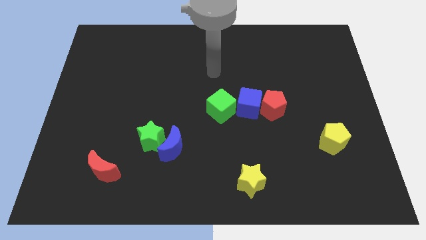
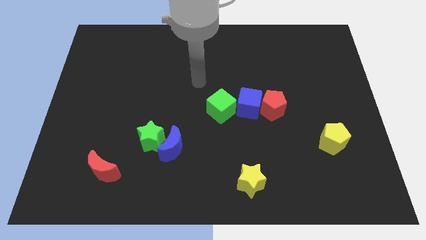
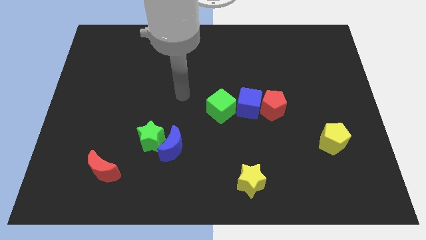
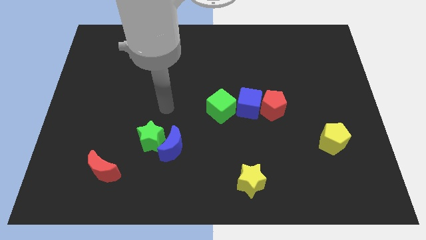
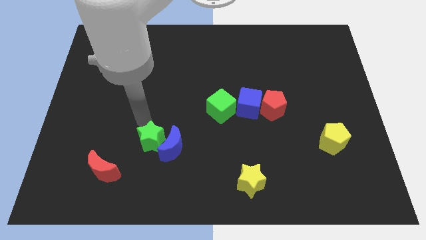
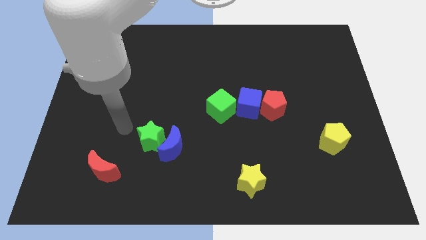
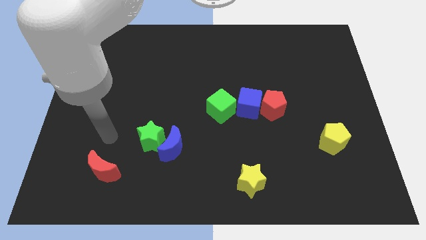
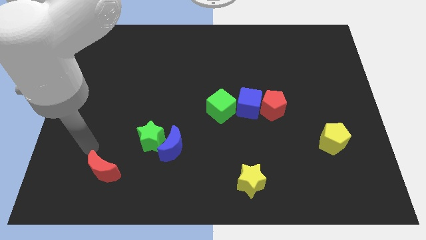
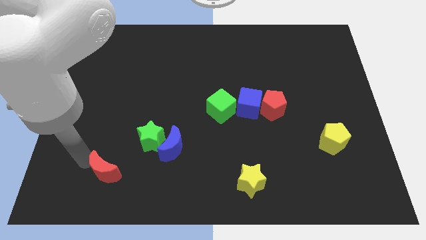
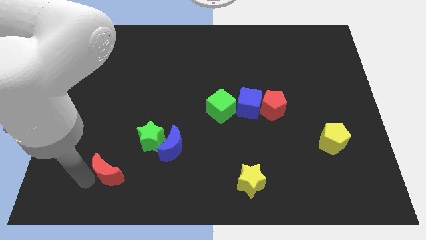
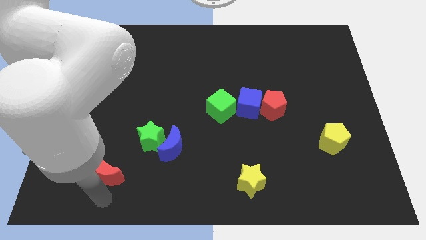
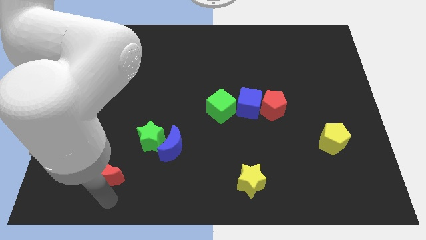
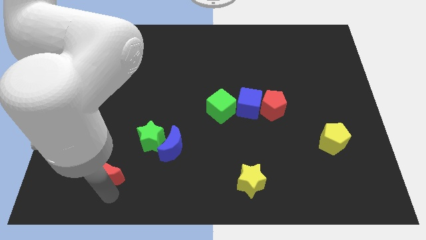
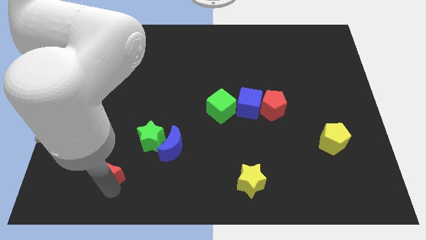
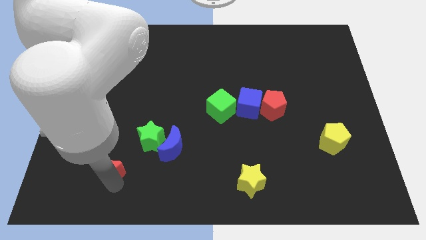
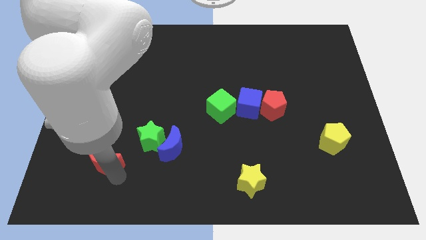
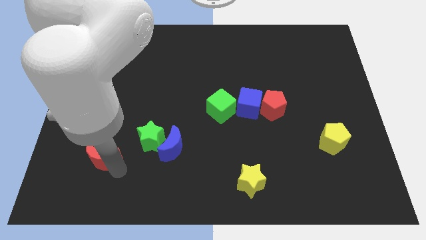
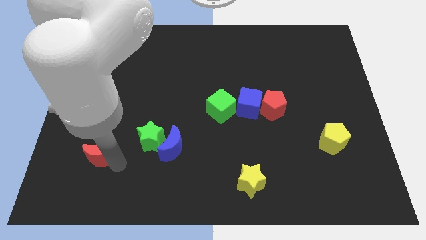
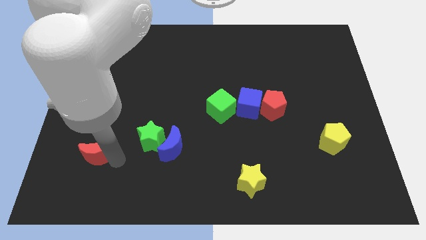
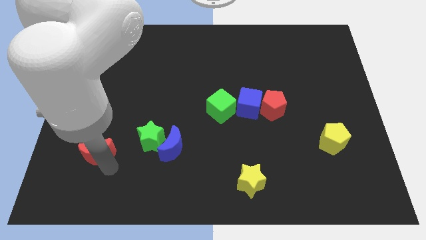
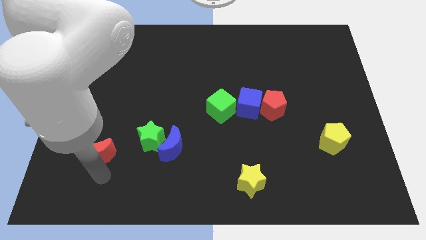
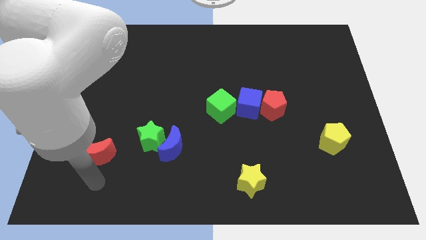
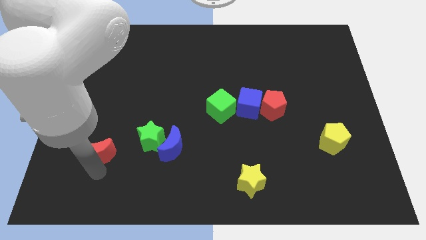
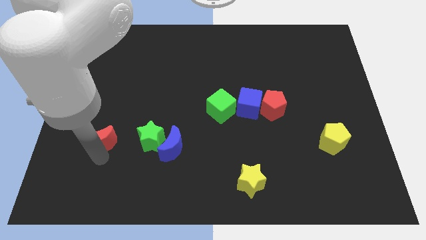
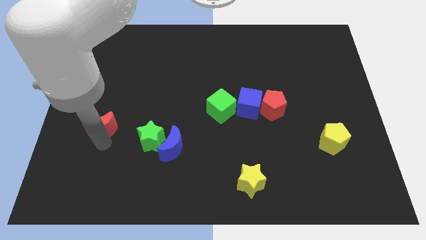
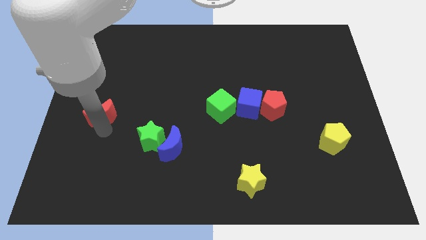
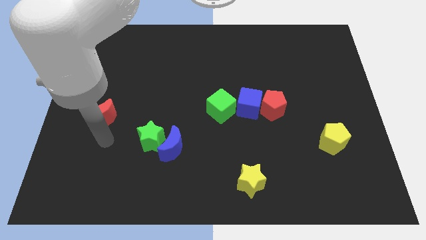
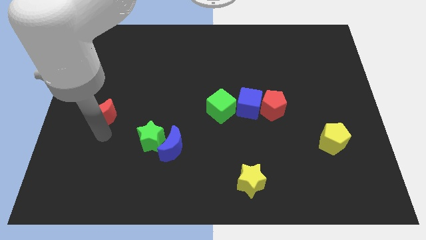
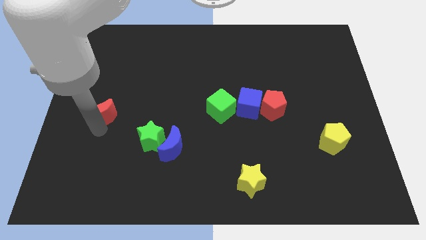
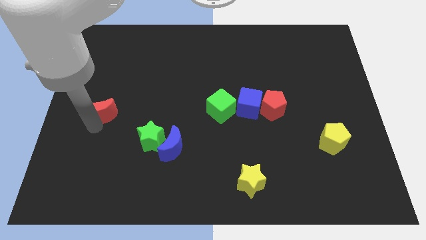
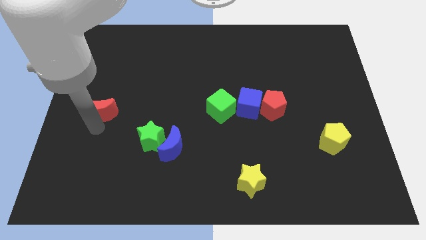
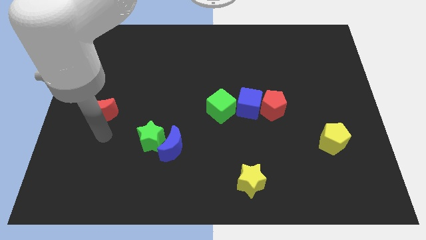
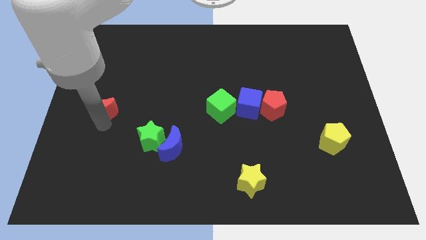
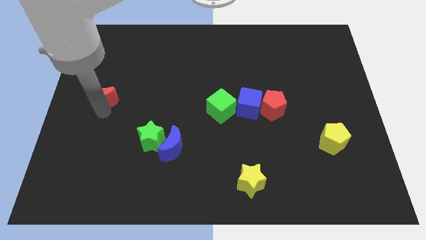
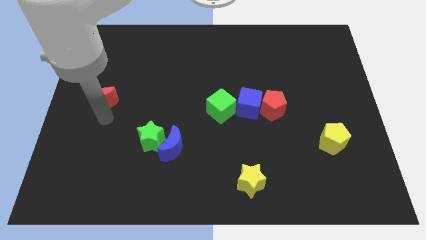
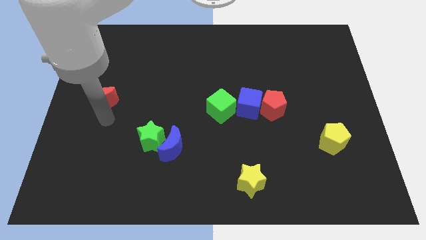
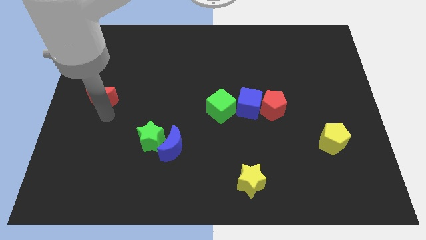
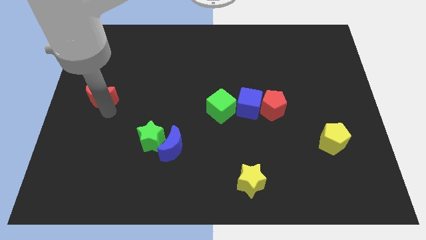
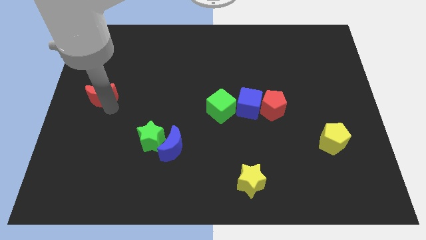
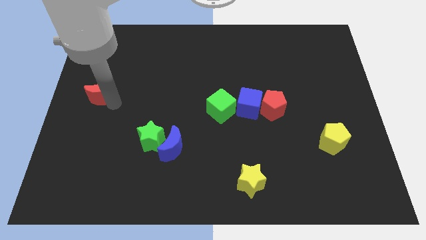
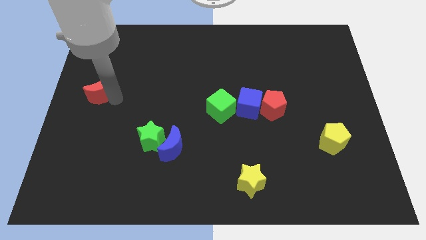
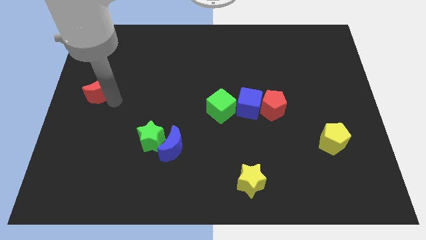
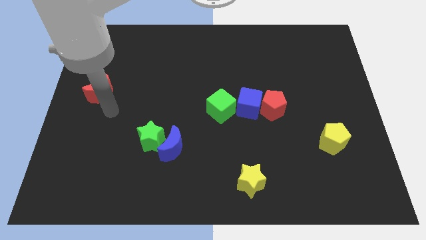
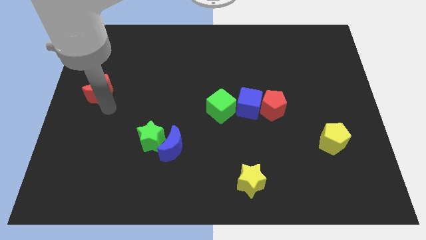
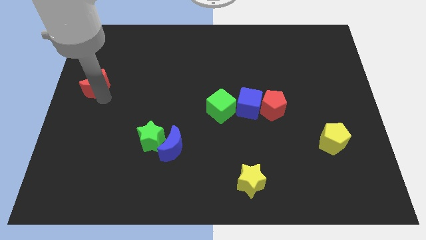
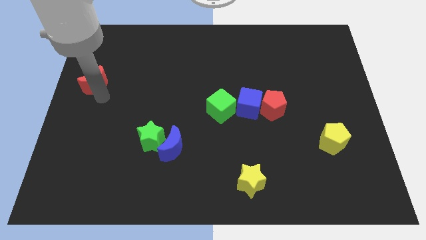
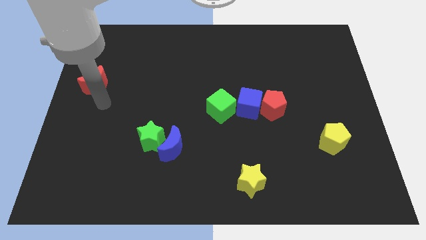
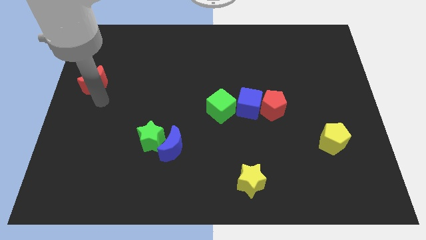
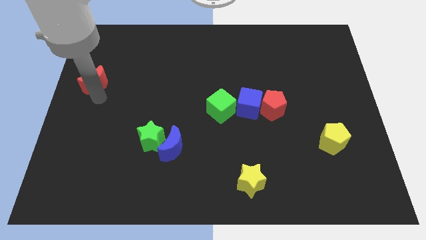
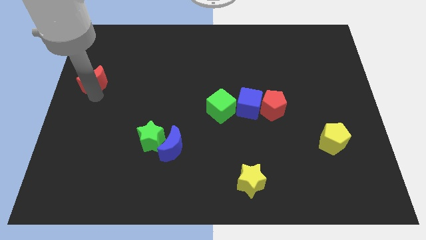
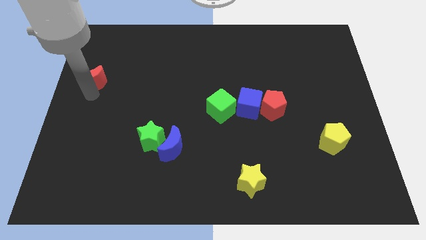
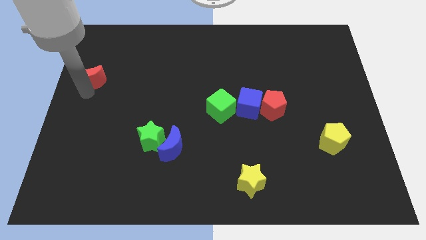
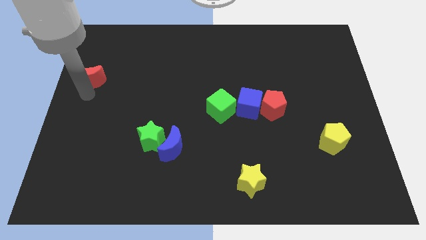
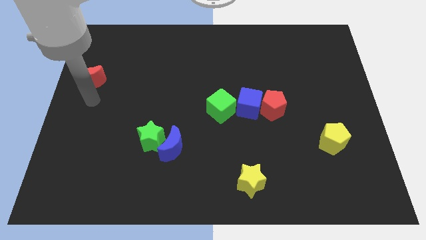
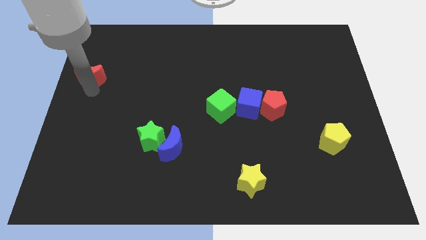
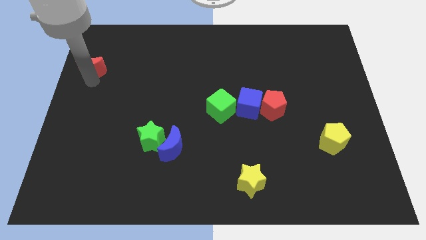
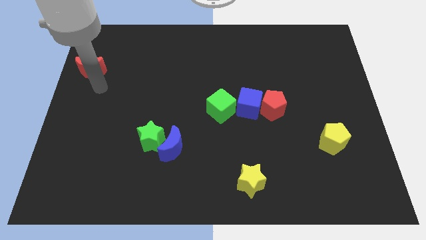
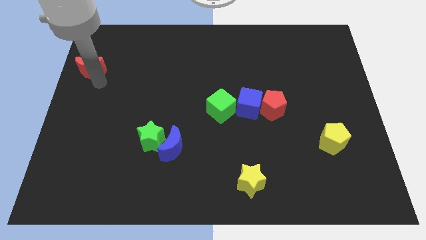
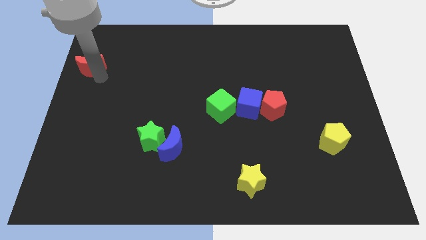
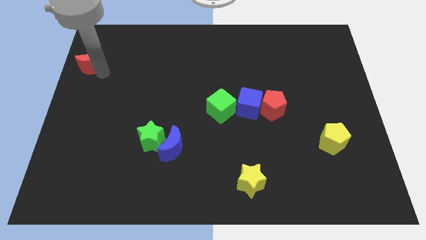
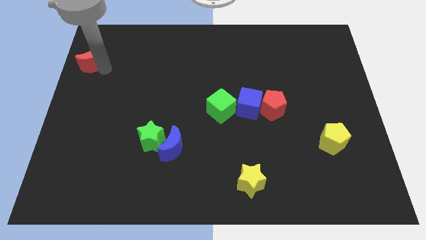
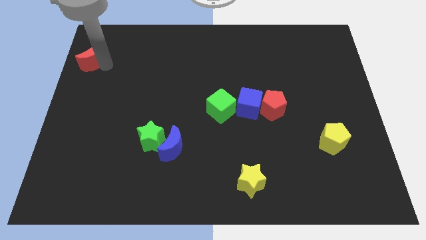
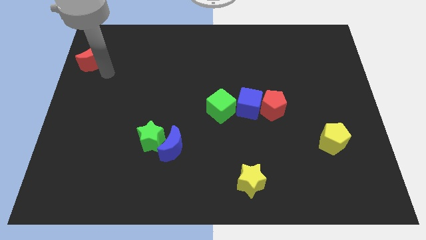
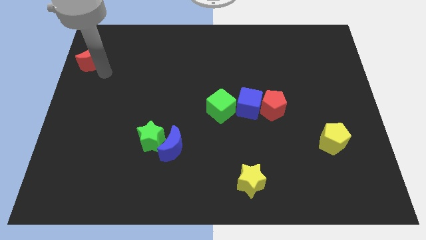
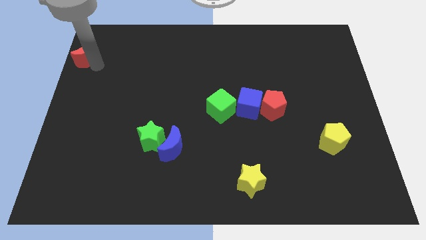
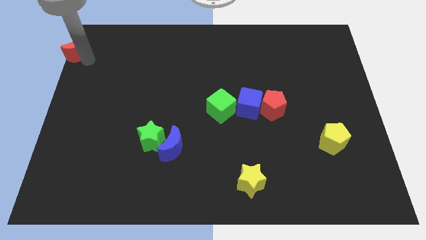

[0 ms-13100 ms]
push the red moon to the top left
